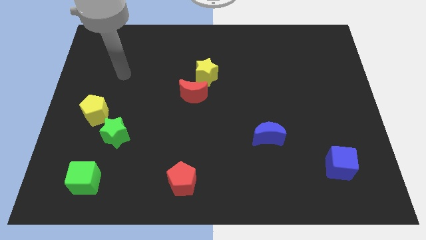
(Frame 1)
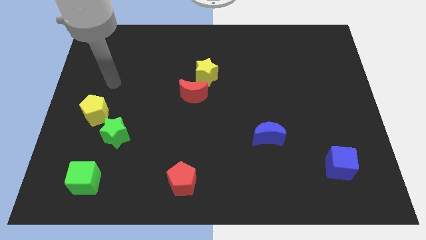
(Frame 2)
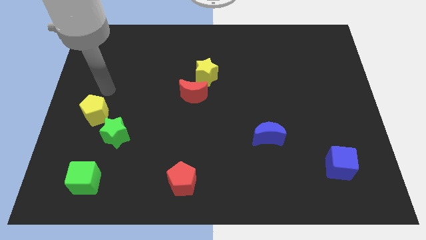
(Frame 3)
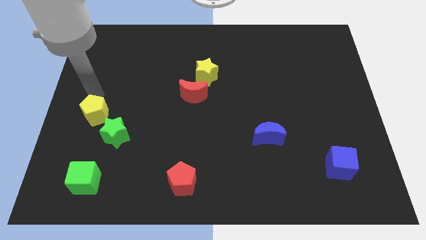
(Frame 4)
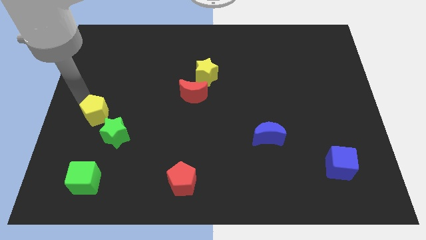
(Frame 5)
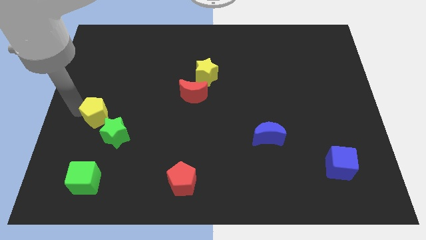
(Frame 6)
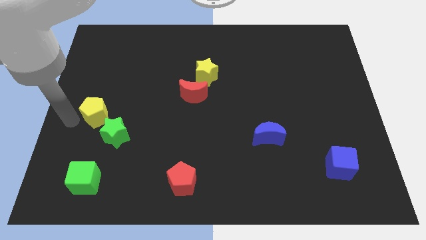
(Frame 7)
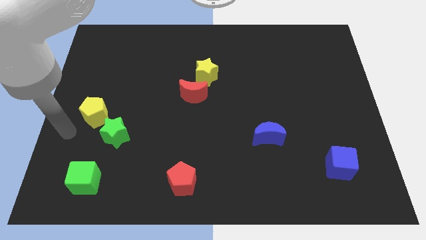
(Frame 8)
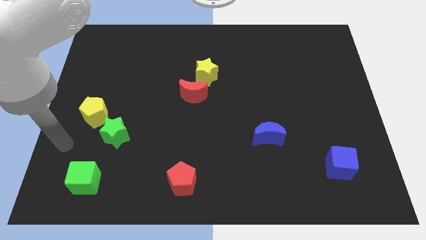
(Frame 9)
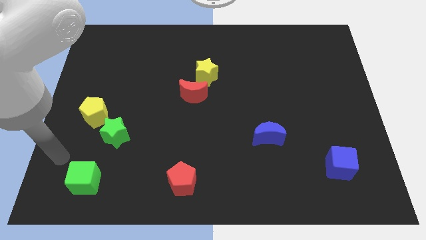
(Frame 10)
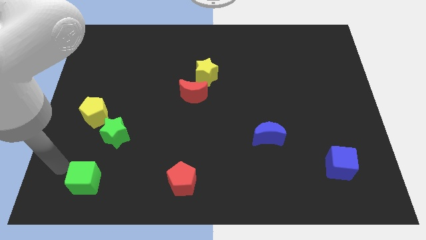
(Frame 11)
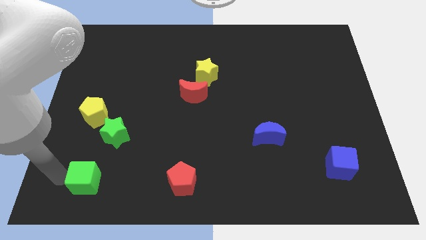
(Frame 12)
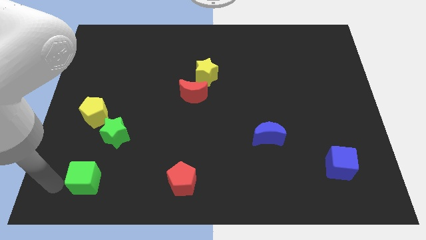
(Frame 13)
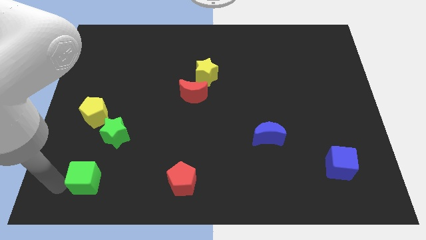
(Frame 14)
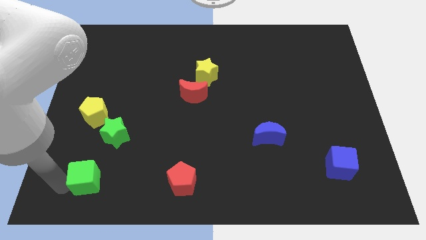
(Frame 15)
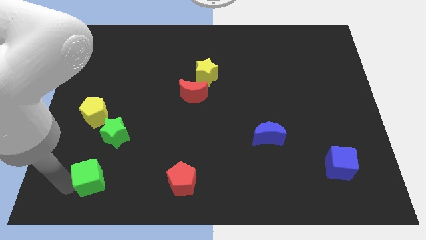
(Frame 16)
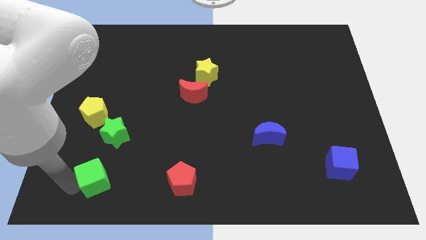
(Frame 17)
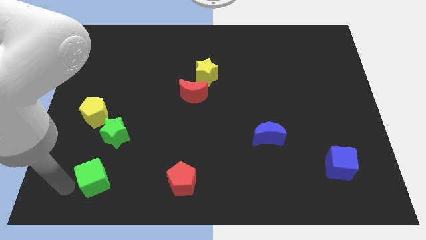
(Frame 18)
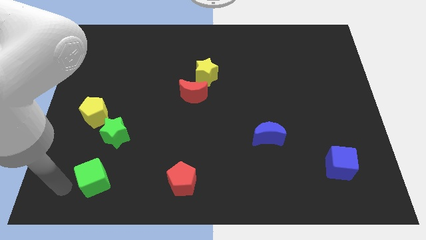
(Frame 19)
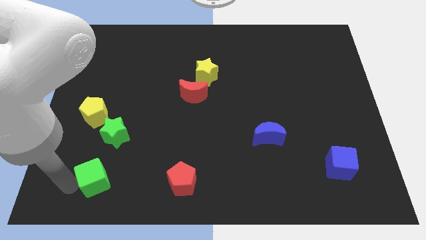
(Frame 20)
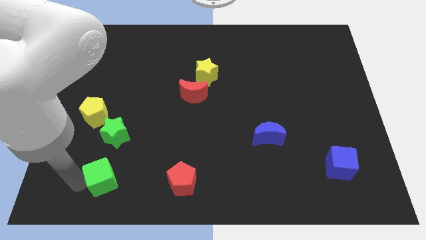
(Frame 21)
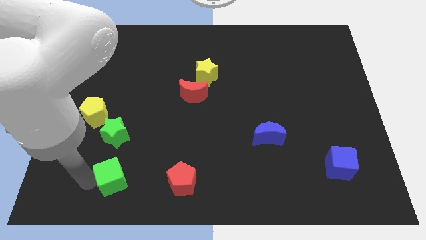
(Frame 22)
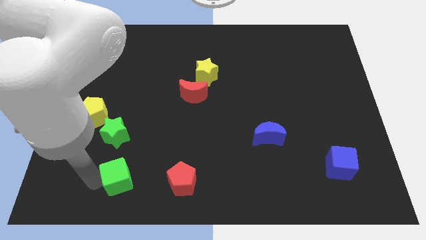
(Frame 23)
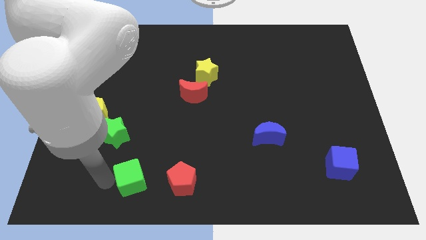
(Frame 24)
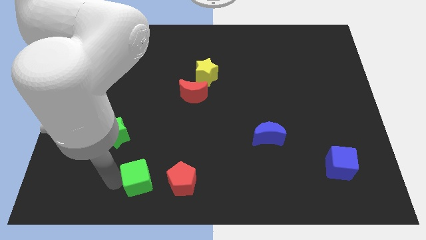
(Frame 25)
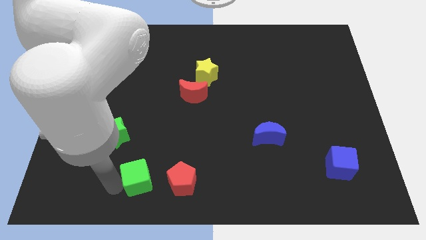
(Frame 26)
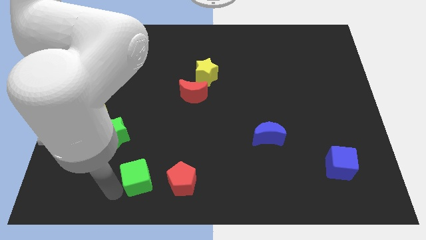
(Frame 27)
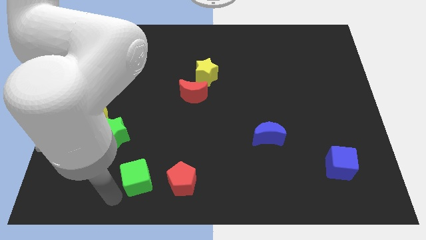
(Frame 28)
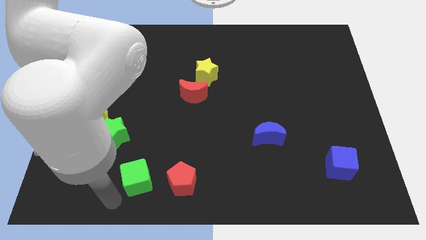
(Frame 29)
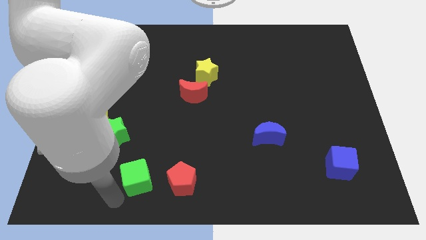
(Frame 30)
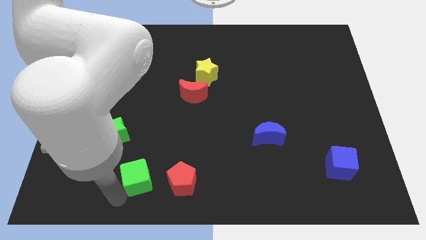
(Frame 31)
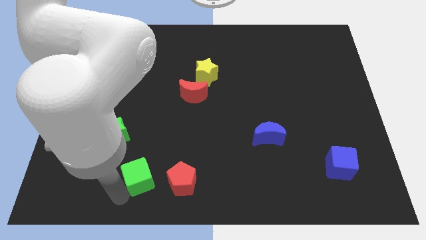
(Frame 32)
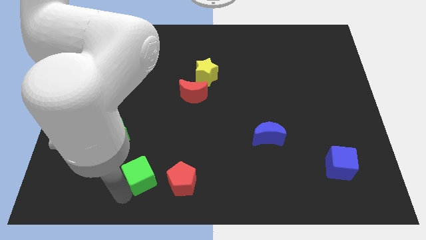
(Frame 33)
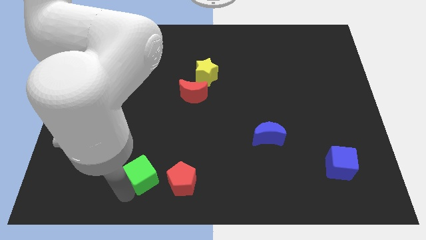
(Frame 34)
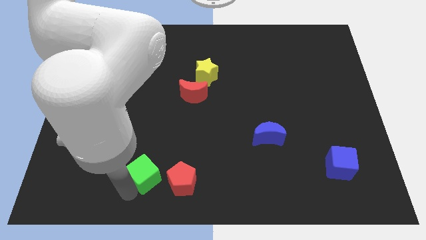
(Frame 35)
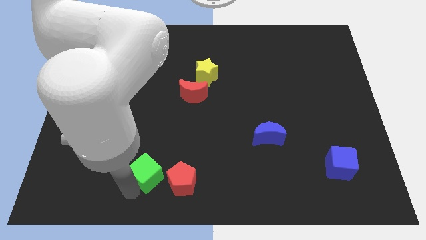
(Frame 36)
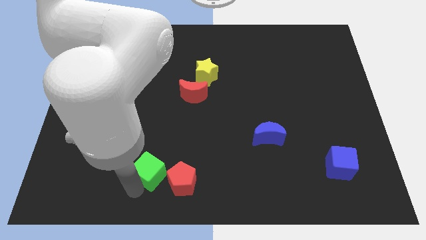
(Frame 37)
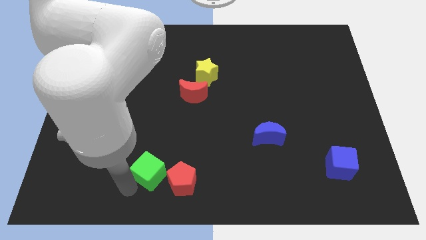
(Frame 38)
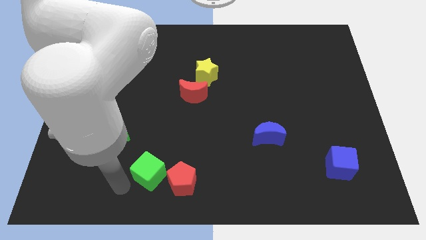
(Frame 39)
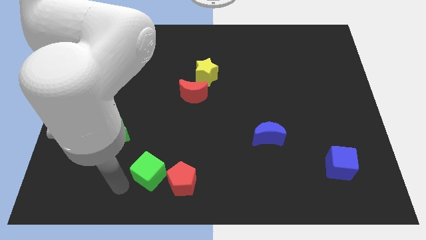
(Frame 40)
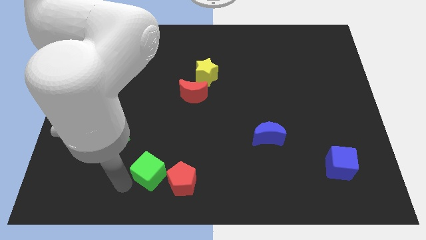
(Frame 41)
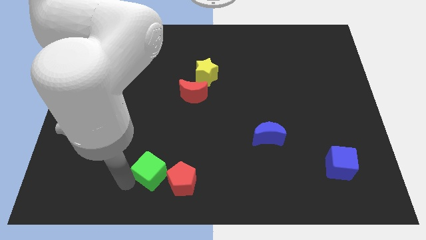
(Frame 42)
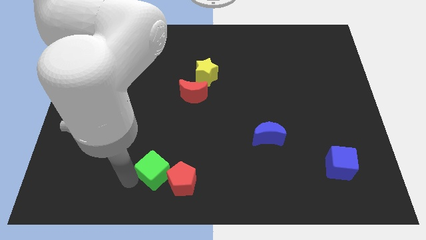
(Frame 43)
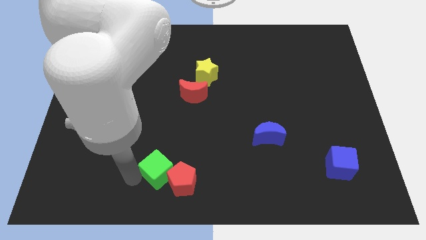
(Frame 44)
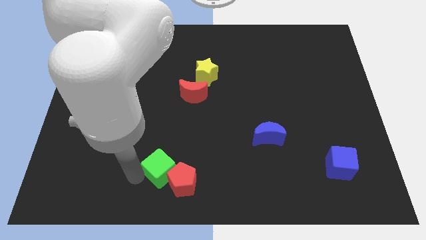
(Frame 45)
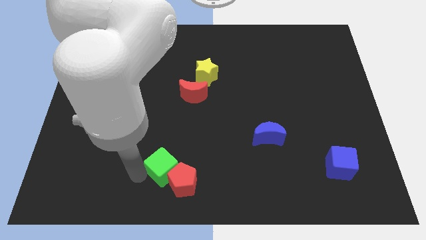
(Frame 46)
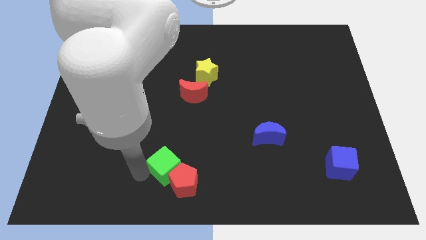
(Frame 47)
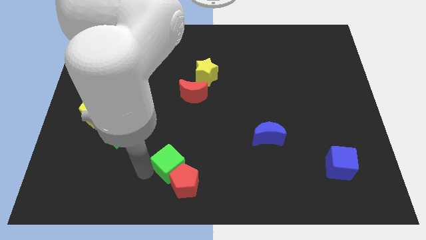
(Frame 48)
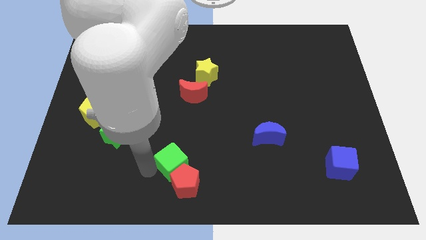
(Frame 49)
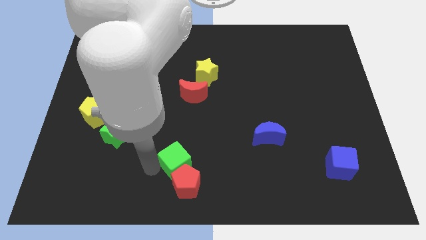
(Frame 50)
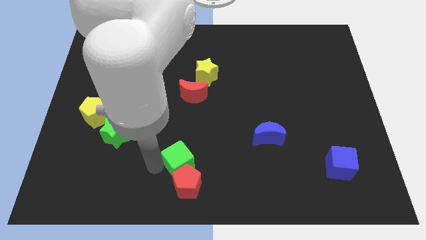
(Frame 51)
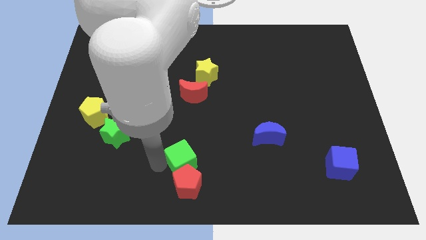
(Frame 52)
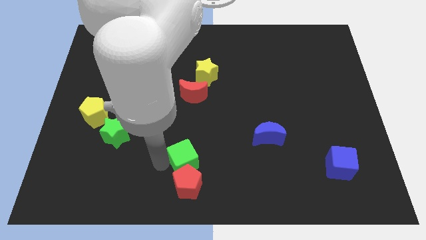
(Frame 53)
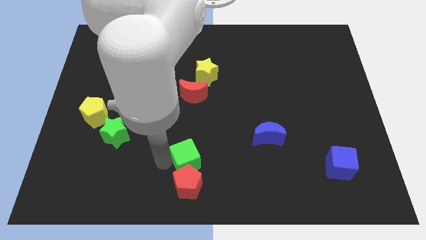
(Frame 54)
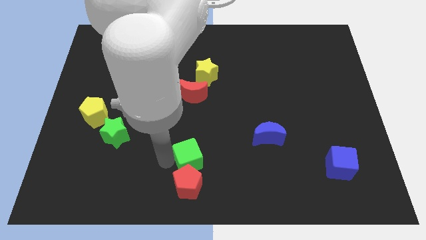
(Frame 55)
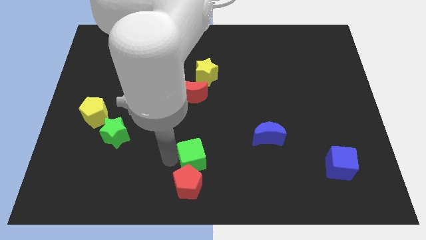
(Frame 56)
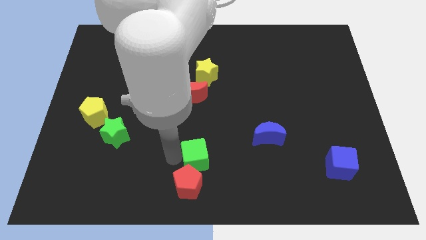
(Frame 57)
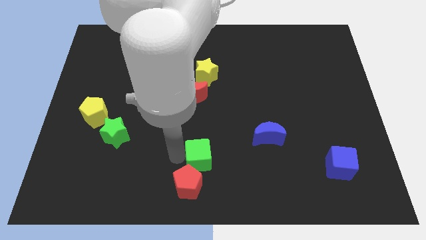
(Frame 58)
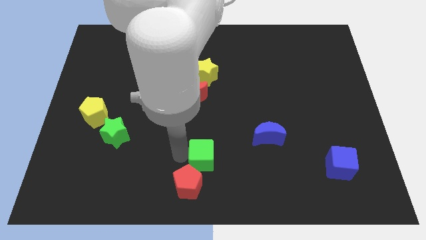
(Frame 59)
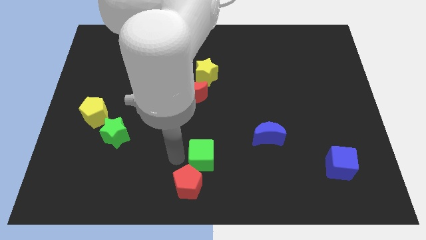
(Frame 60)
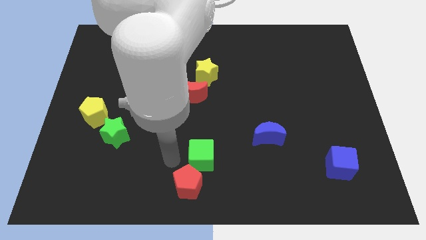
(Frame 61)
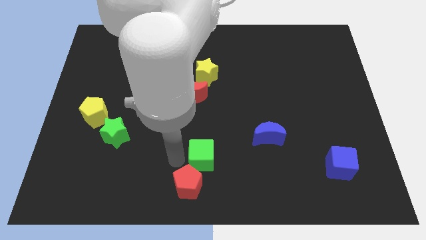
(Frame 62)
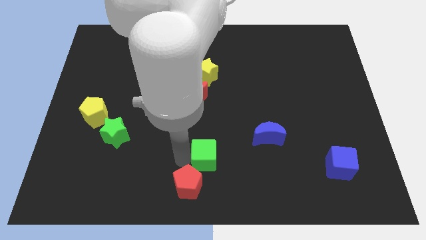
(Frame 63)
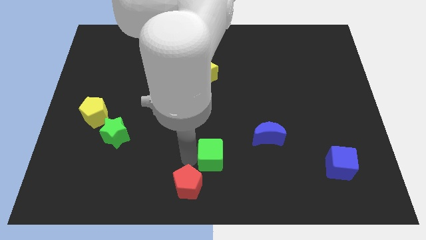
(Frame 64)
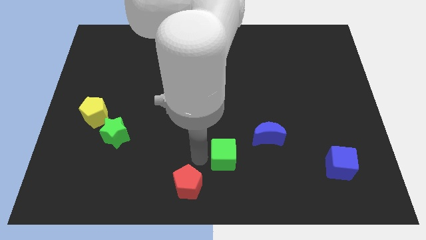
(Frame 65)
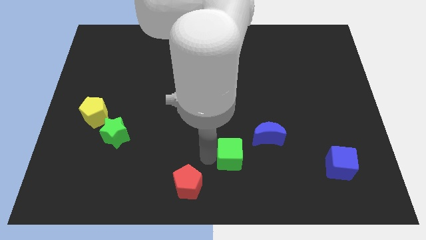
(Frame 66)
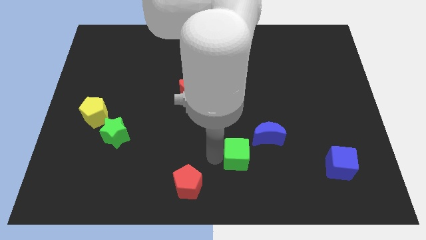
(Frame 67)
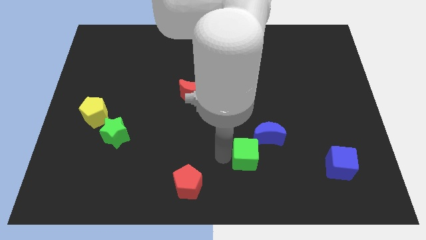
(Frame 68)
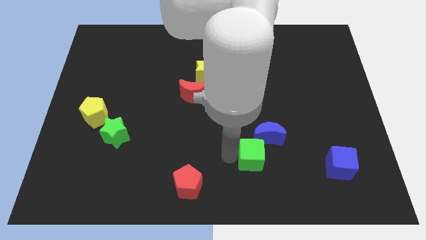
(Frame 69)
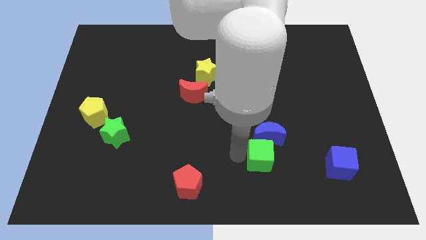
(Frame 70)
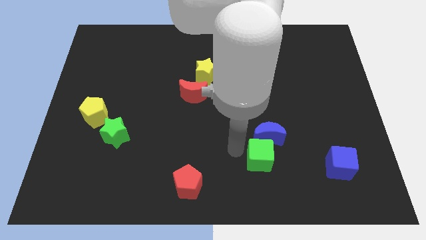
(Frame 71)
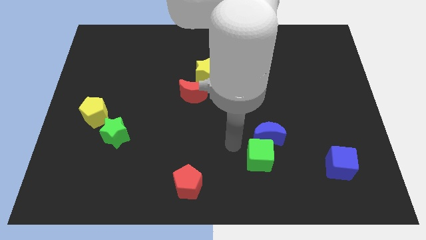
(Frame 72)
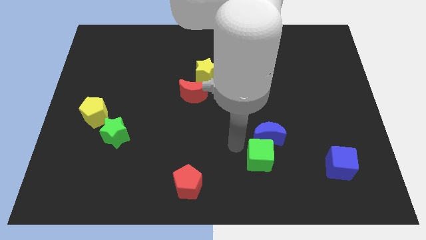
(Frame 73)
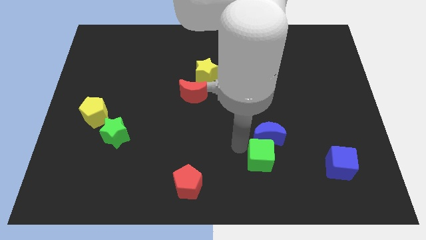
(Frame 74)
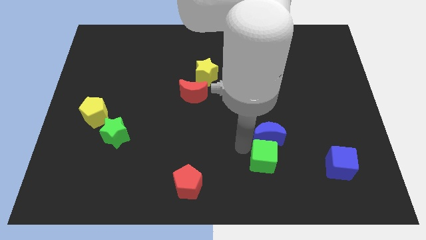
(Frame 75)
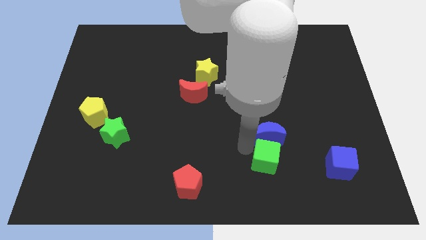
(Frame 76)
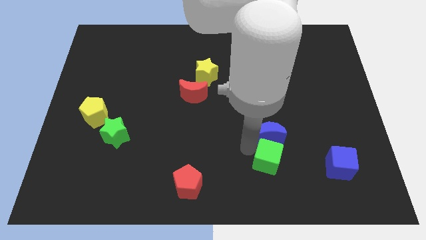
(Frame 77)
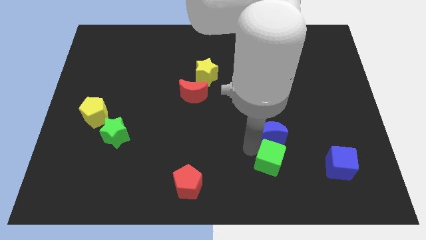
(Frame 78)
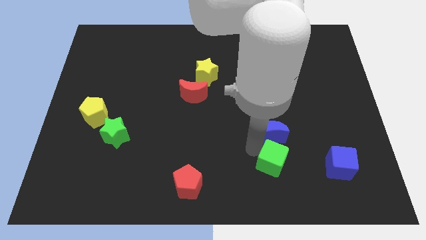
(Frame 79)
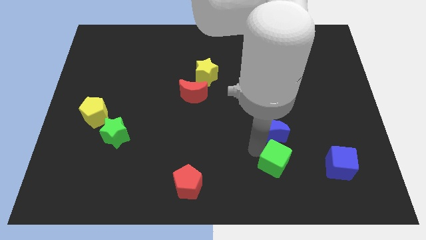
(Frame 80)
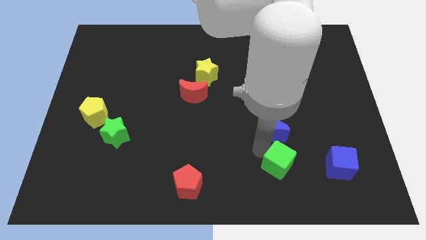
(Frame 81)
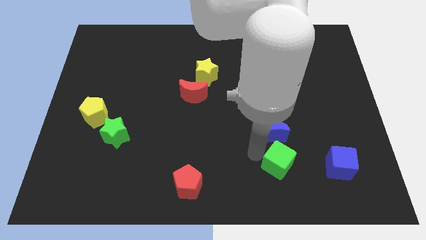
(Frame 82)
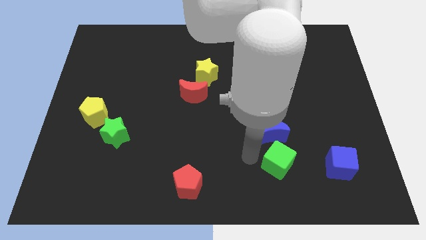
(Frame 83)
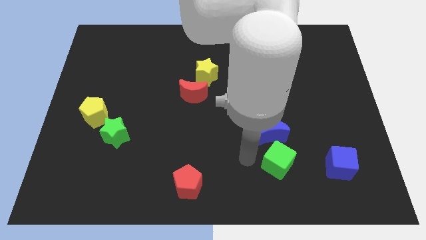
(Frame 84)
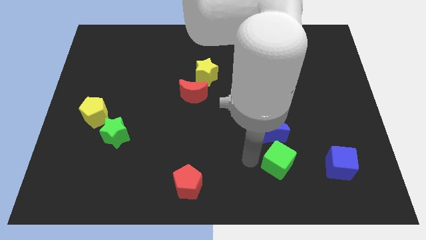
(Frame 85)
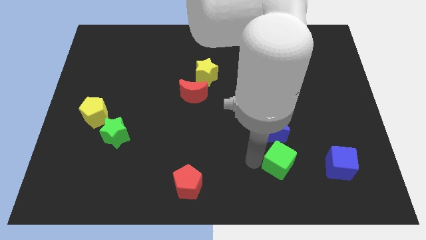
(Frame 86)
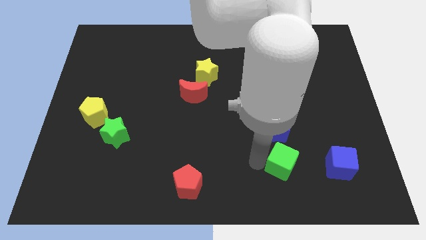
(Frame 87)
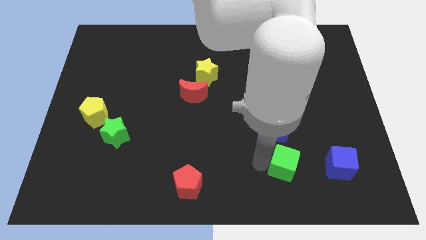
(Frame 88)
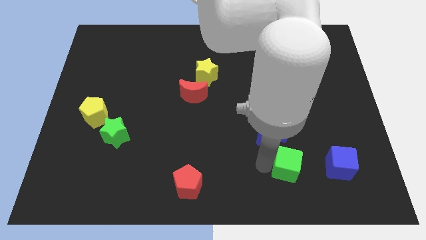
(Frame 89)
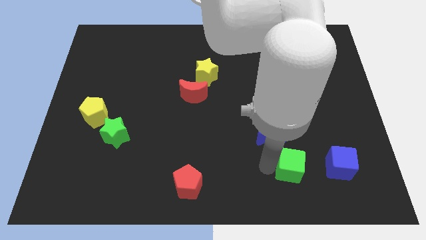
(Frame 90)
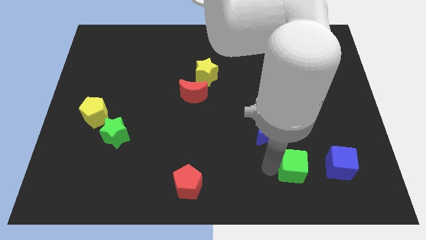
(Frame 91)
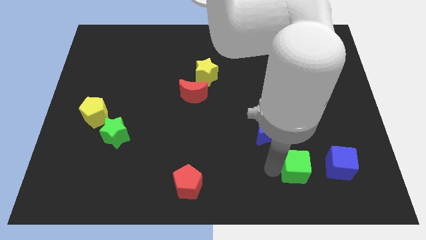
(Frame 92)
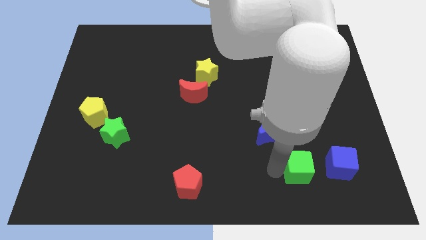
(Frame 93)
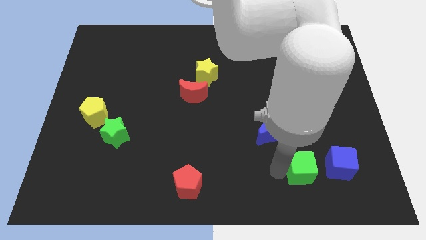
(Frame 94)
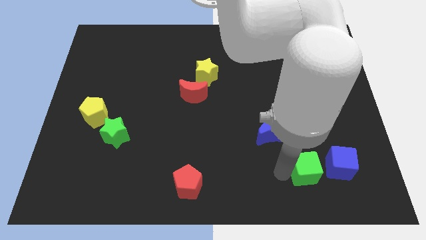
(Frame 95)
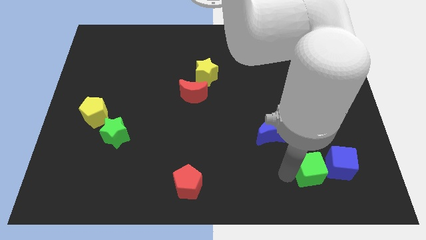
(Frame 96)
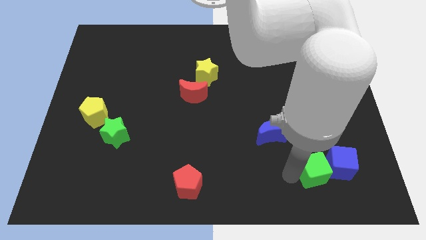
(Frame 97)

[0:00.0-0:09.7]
push the green cube towards the blue cube
